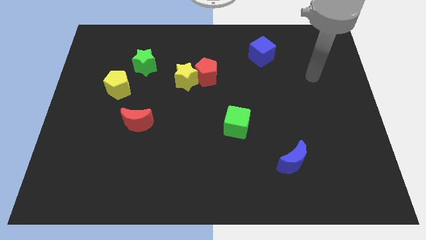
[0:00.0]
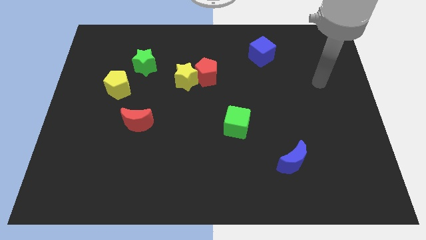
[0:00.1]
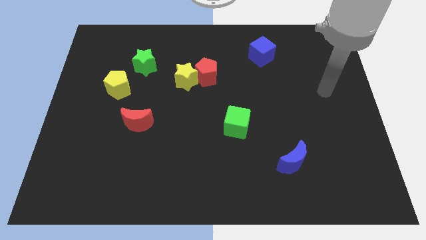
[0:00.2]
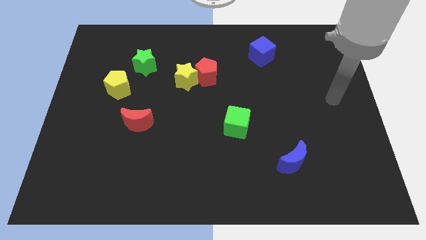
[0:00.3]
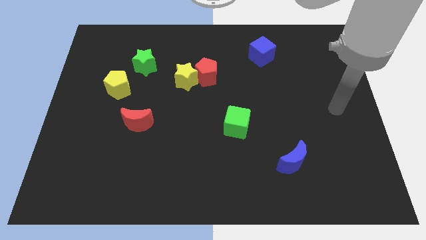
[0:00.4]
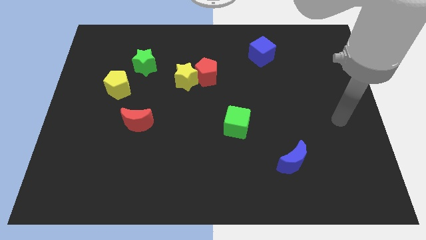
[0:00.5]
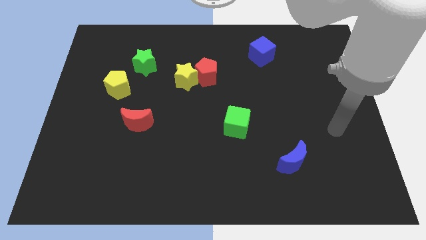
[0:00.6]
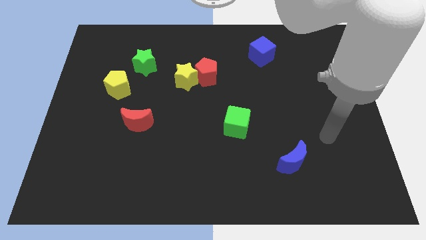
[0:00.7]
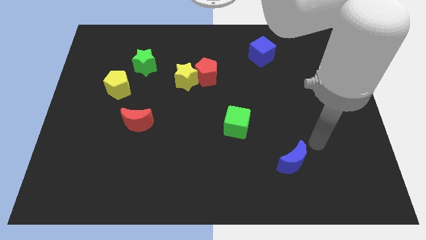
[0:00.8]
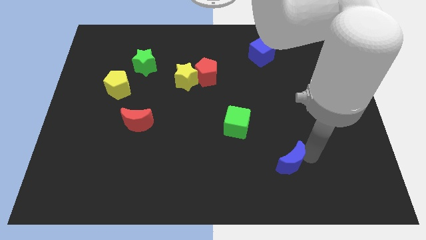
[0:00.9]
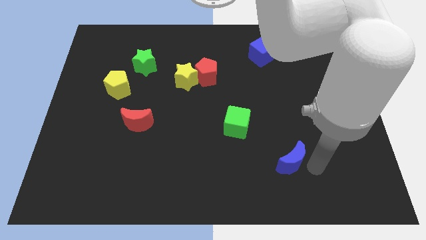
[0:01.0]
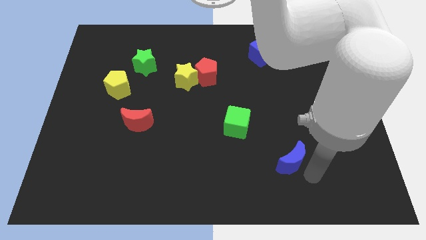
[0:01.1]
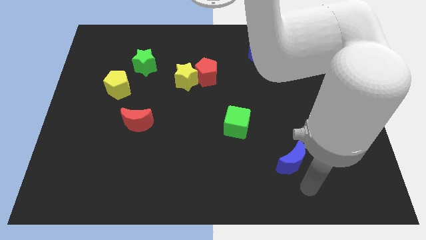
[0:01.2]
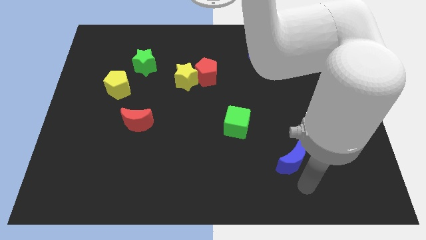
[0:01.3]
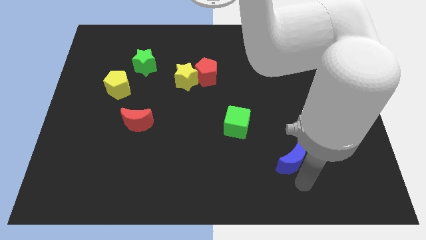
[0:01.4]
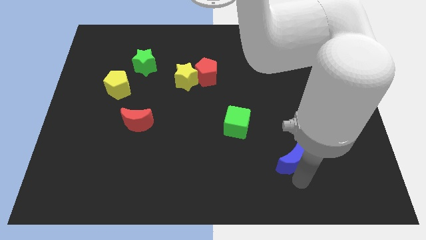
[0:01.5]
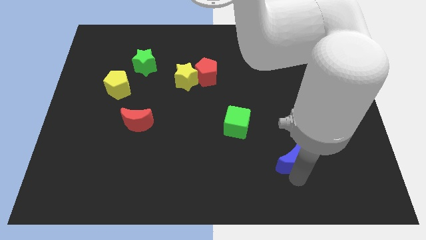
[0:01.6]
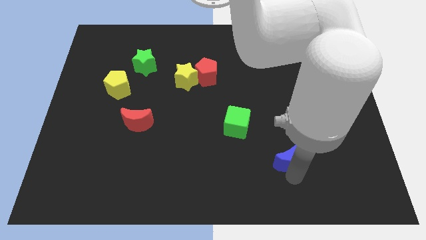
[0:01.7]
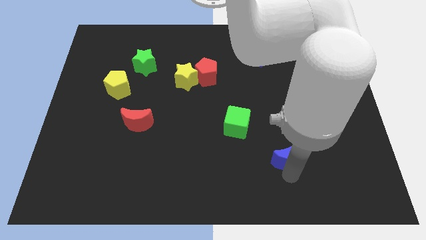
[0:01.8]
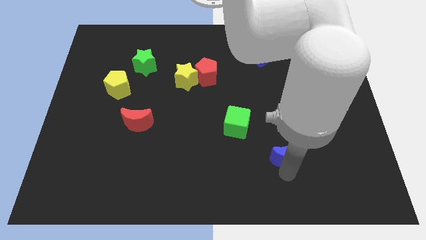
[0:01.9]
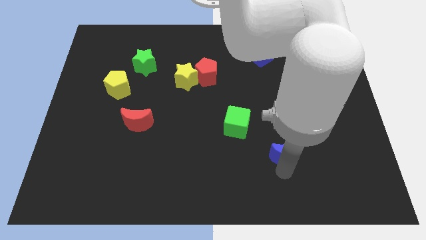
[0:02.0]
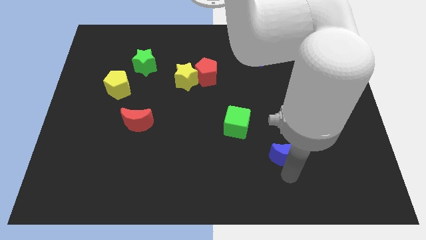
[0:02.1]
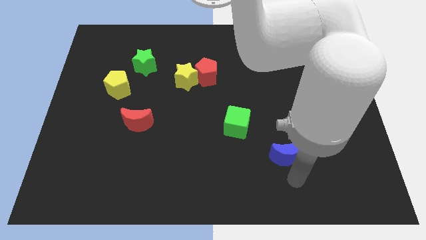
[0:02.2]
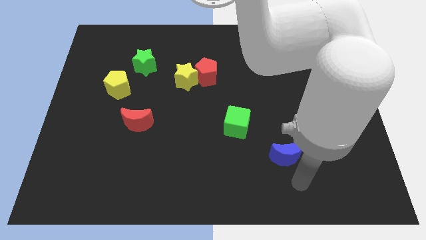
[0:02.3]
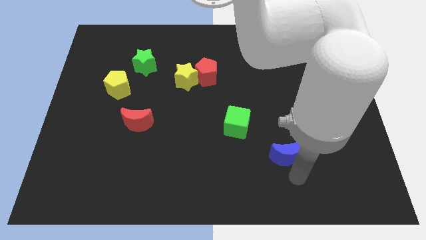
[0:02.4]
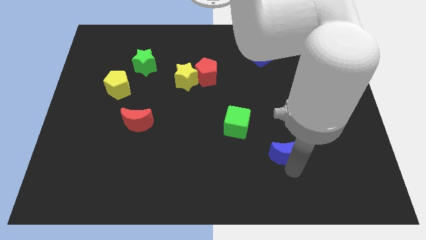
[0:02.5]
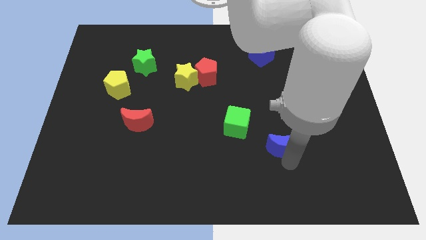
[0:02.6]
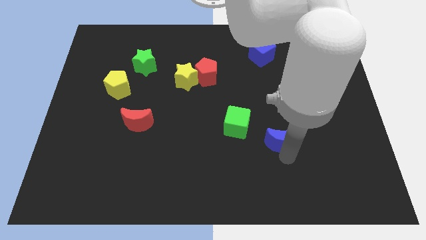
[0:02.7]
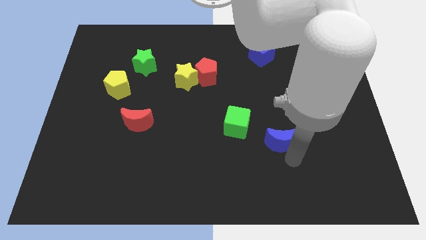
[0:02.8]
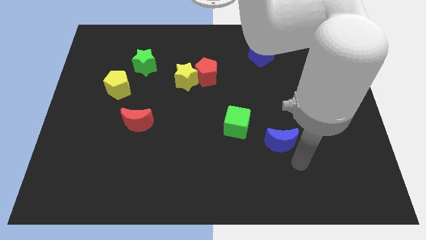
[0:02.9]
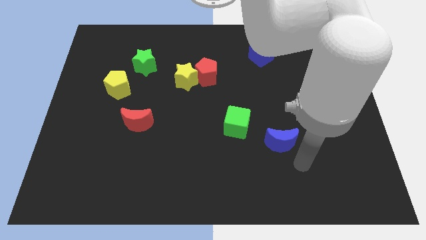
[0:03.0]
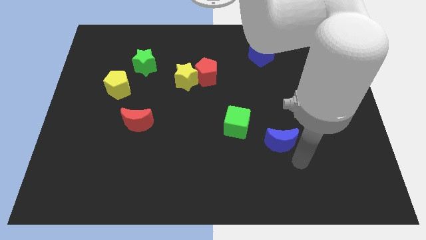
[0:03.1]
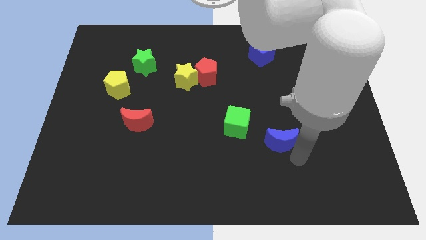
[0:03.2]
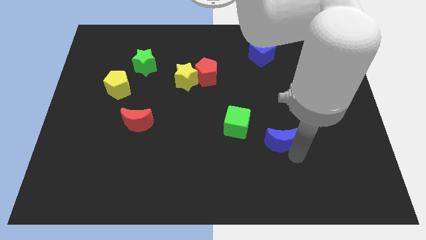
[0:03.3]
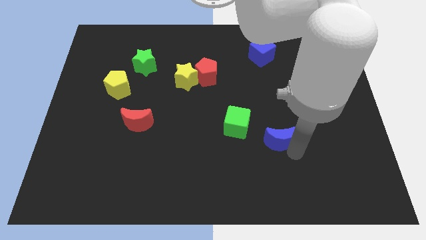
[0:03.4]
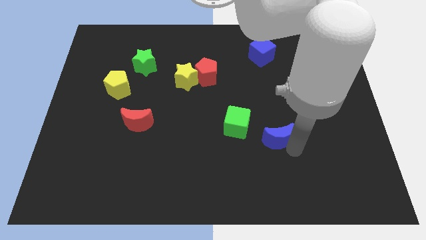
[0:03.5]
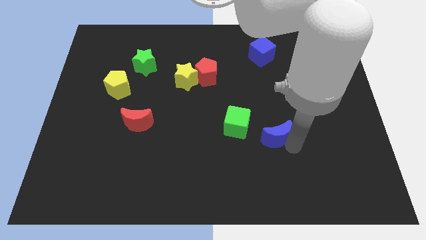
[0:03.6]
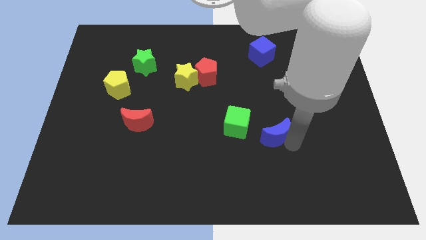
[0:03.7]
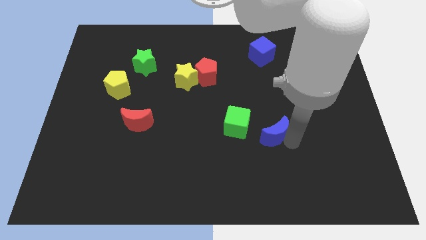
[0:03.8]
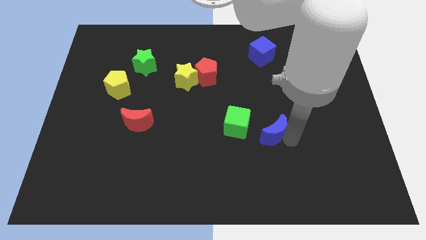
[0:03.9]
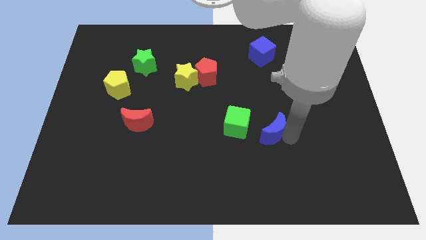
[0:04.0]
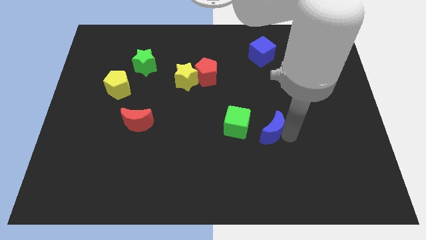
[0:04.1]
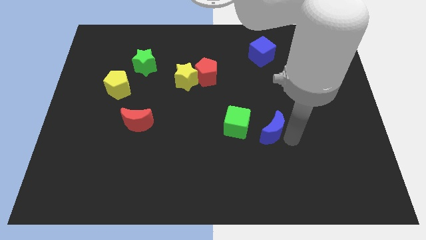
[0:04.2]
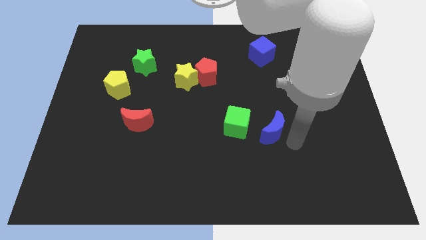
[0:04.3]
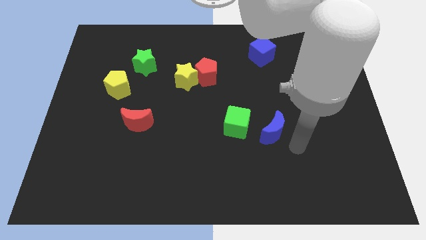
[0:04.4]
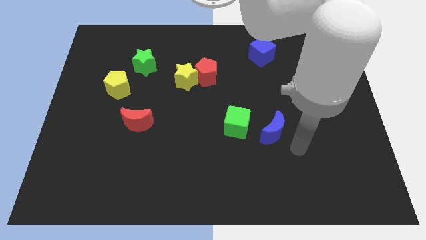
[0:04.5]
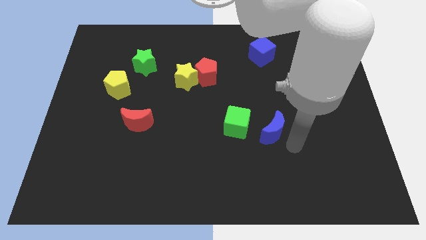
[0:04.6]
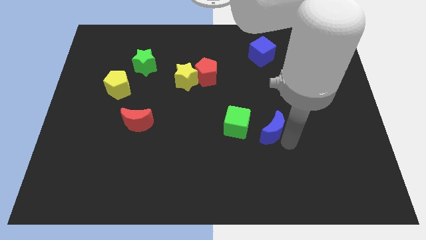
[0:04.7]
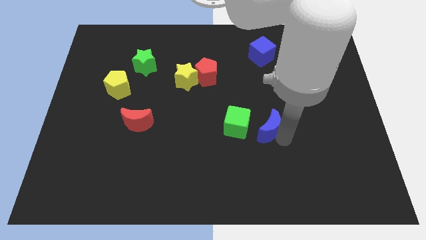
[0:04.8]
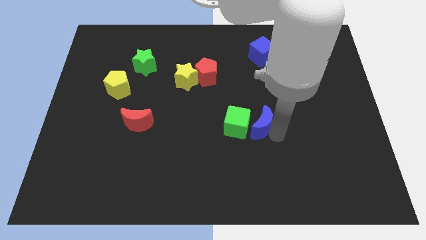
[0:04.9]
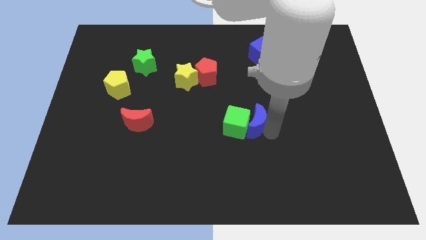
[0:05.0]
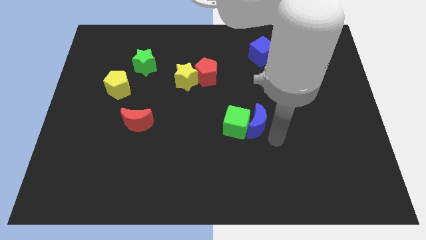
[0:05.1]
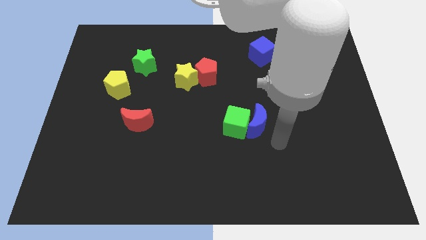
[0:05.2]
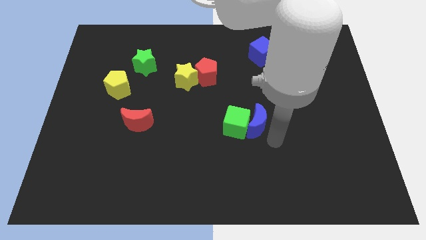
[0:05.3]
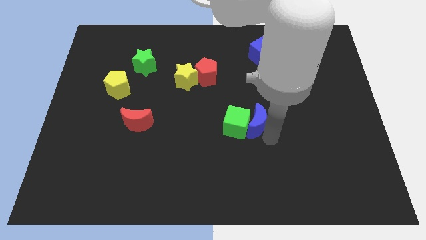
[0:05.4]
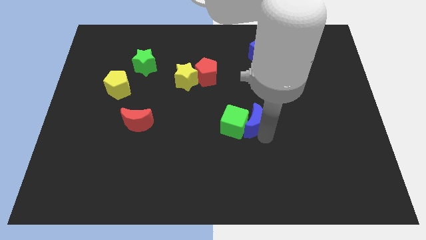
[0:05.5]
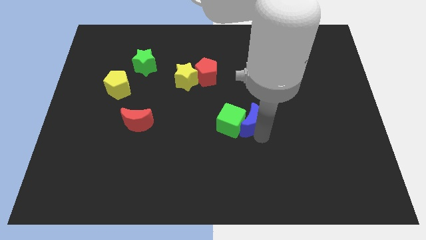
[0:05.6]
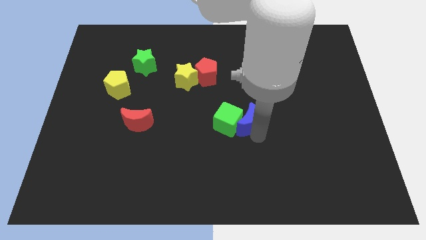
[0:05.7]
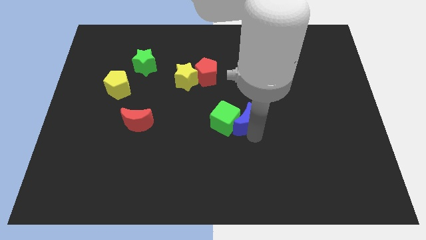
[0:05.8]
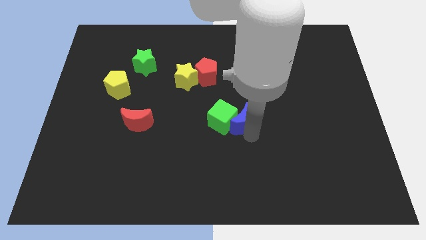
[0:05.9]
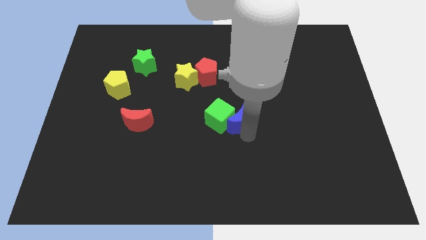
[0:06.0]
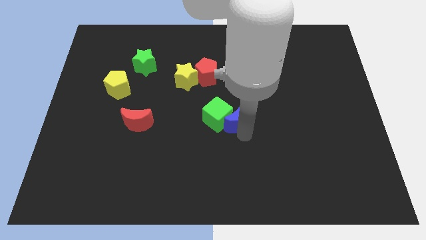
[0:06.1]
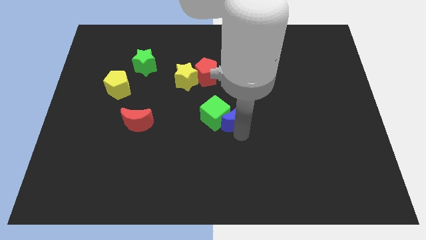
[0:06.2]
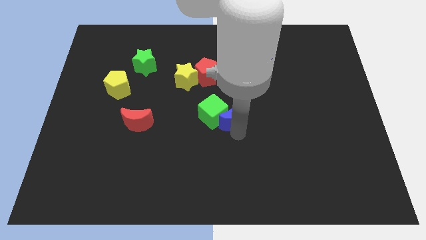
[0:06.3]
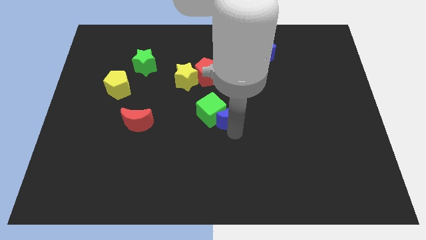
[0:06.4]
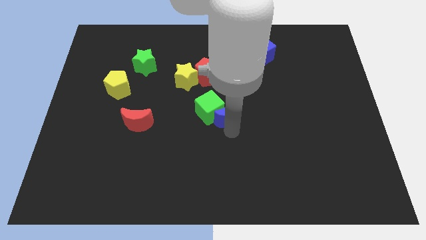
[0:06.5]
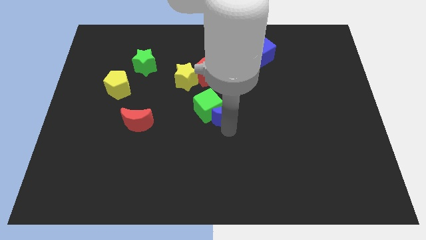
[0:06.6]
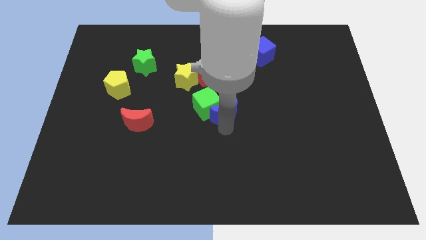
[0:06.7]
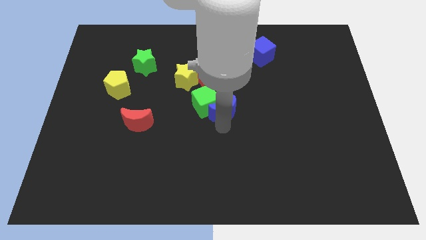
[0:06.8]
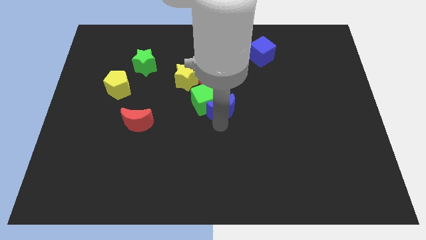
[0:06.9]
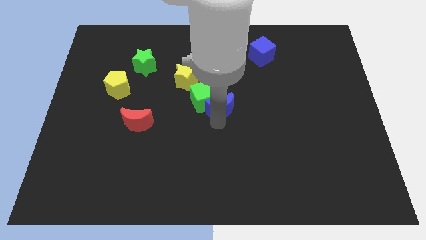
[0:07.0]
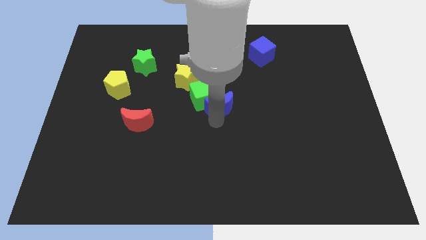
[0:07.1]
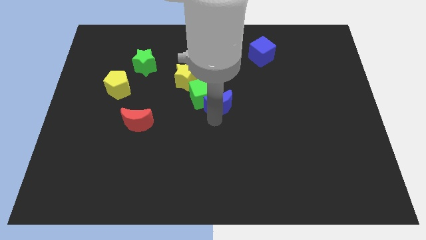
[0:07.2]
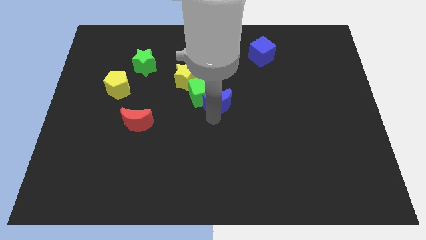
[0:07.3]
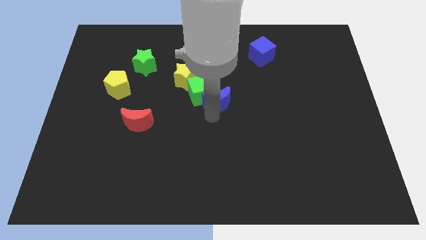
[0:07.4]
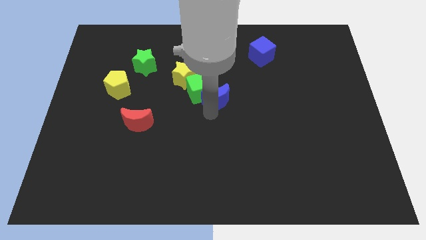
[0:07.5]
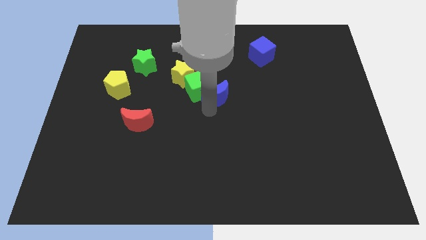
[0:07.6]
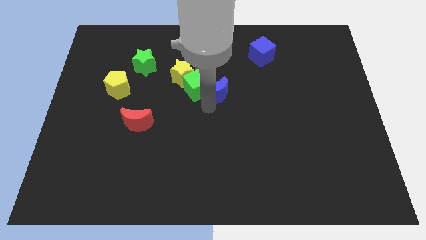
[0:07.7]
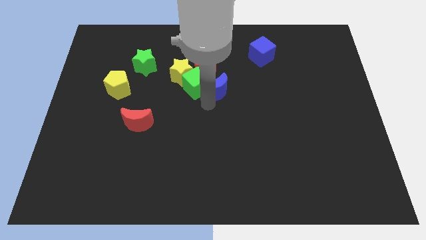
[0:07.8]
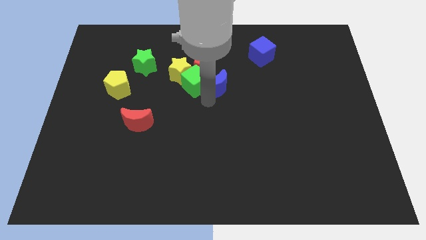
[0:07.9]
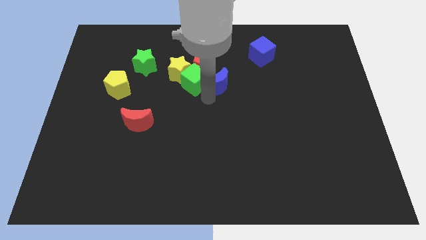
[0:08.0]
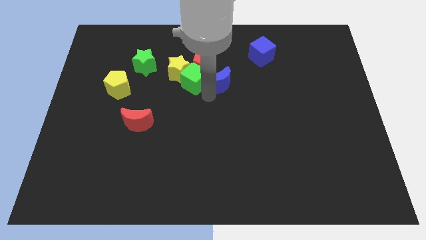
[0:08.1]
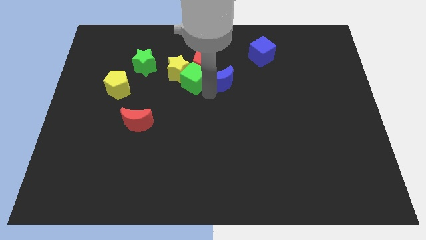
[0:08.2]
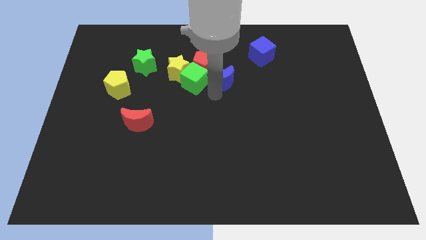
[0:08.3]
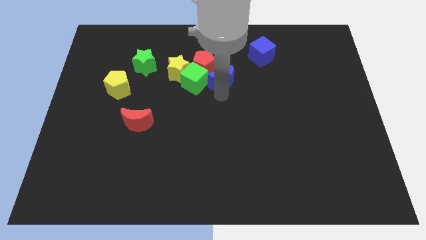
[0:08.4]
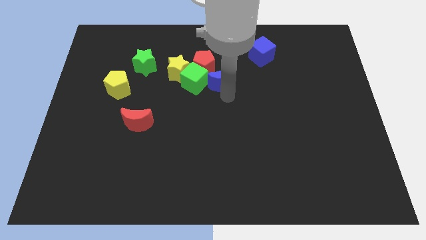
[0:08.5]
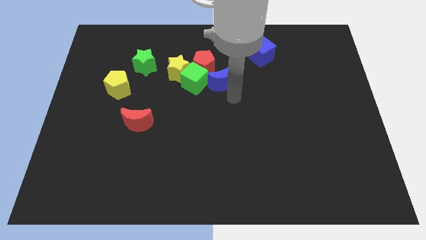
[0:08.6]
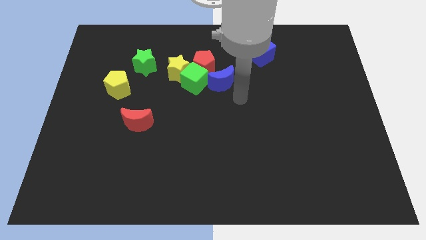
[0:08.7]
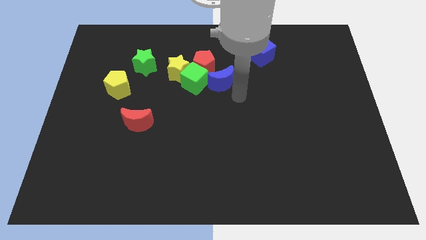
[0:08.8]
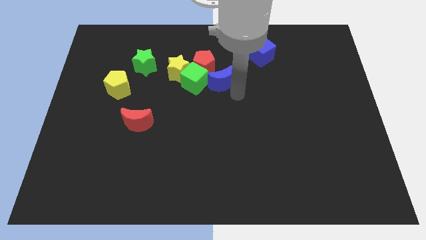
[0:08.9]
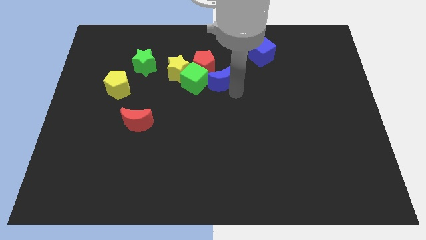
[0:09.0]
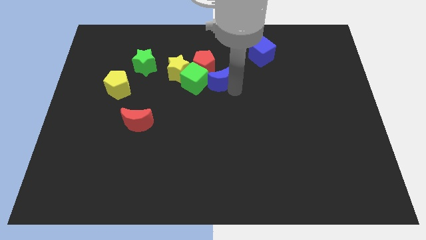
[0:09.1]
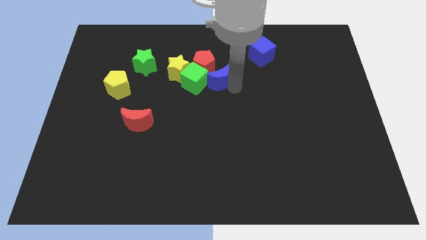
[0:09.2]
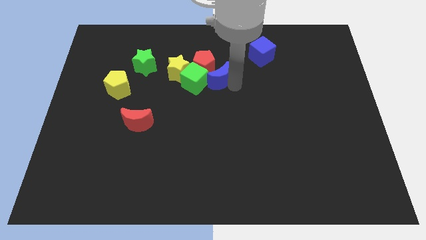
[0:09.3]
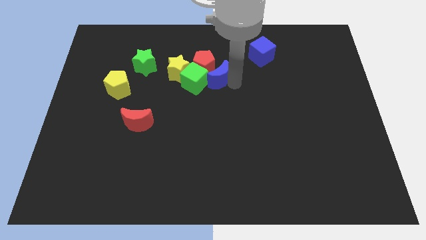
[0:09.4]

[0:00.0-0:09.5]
put the blue moon to the red pentagon
